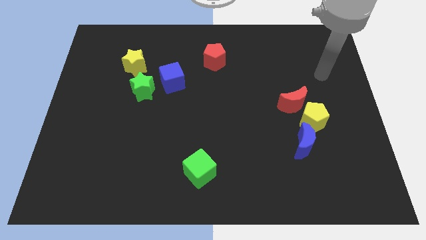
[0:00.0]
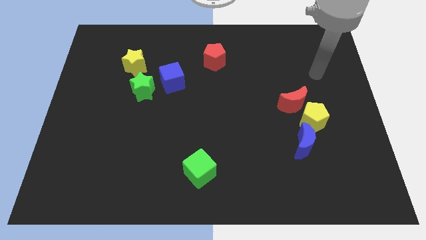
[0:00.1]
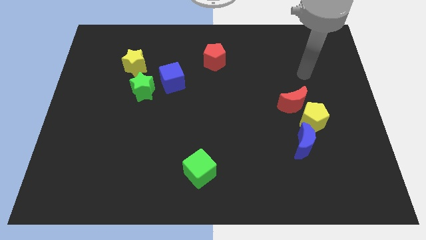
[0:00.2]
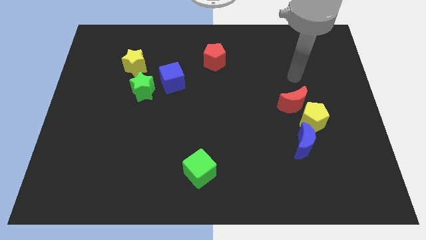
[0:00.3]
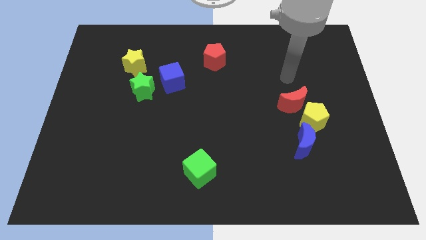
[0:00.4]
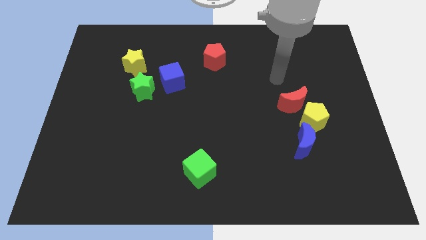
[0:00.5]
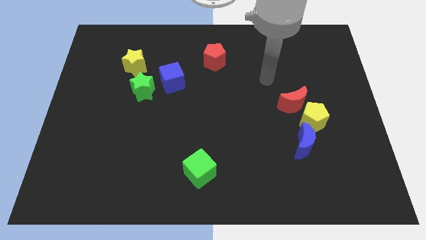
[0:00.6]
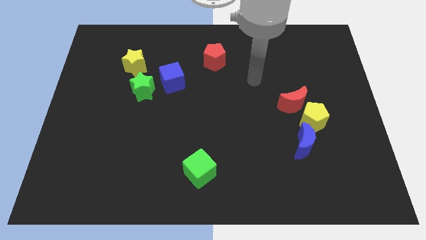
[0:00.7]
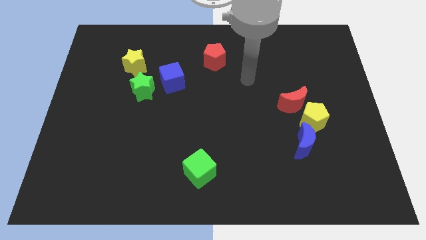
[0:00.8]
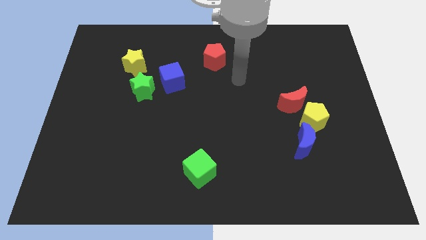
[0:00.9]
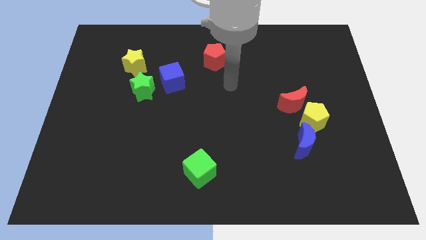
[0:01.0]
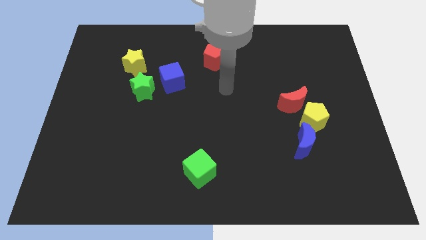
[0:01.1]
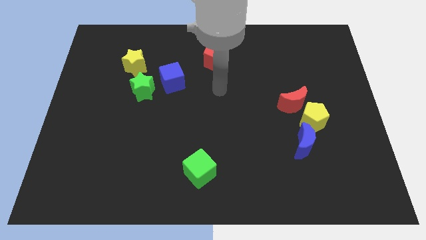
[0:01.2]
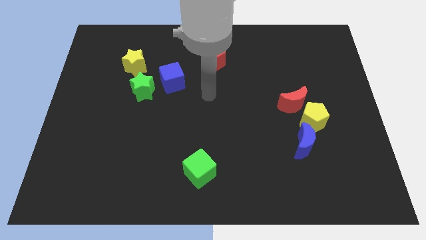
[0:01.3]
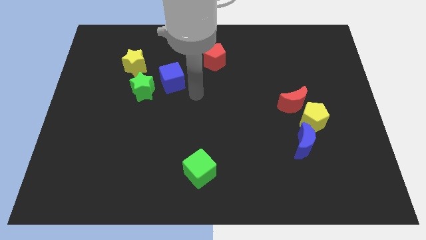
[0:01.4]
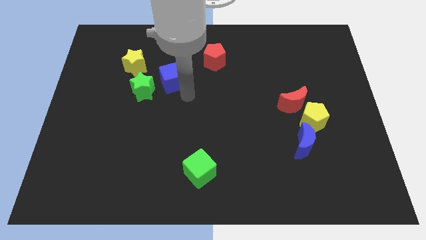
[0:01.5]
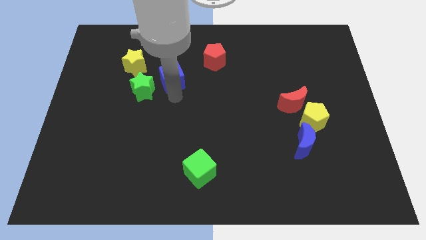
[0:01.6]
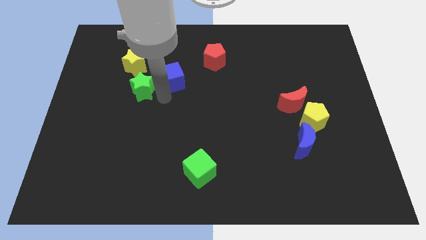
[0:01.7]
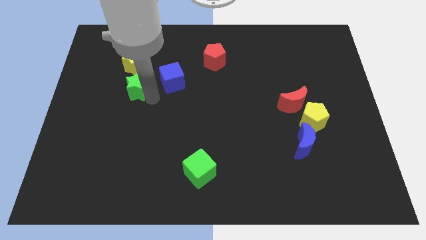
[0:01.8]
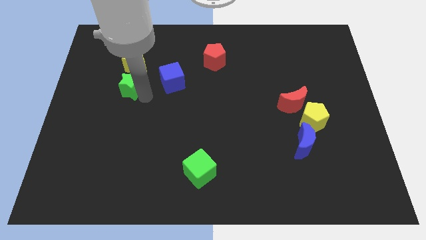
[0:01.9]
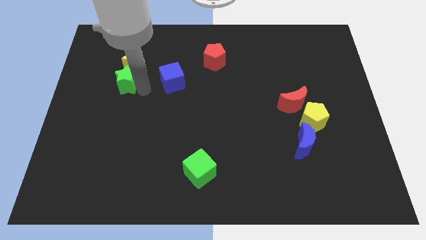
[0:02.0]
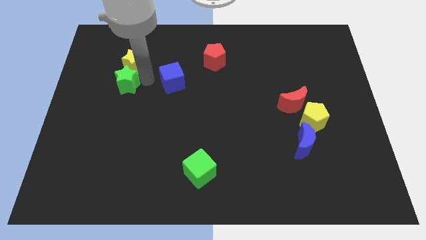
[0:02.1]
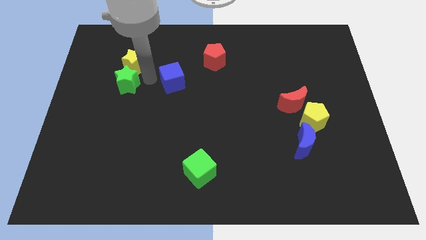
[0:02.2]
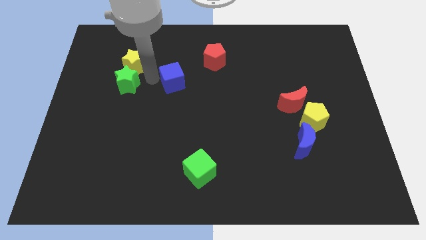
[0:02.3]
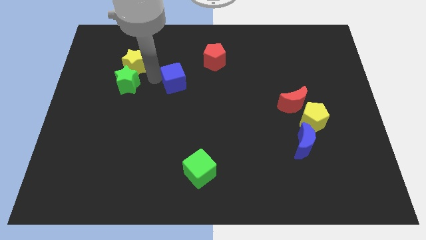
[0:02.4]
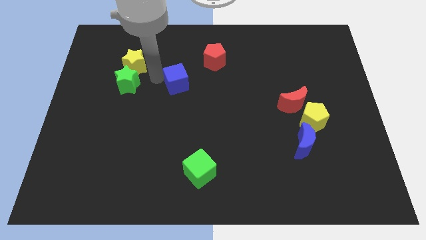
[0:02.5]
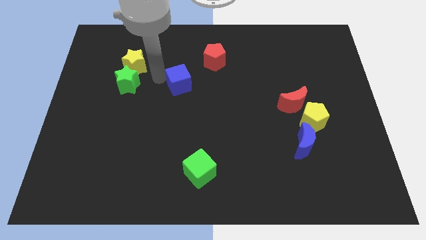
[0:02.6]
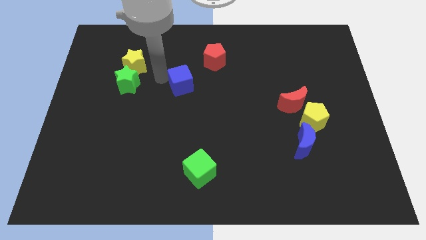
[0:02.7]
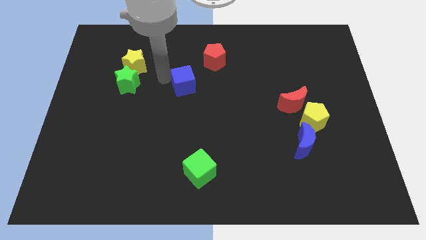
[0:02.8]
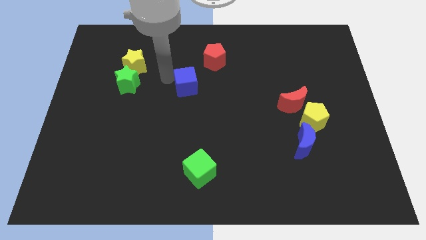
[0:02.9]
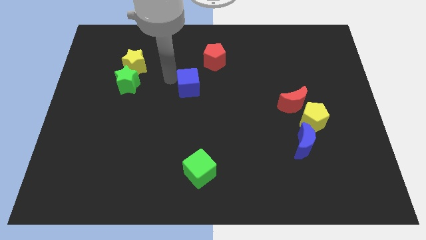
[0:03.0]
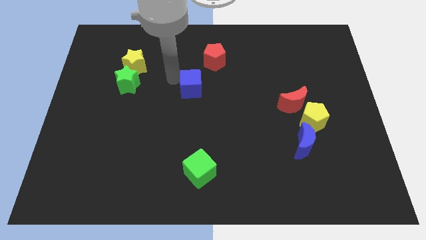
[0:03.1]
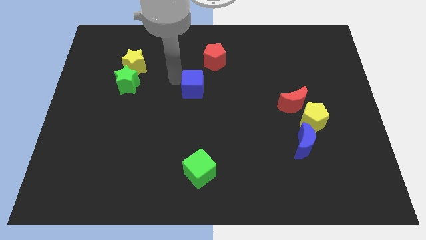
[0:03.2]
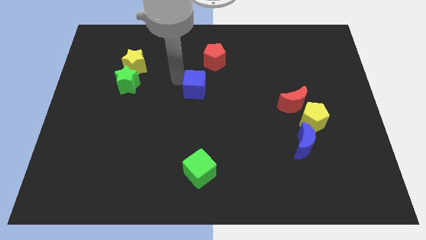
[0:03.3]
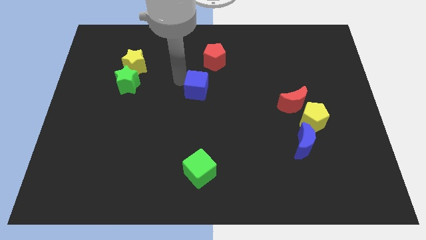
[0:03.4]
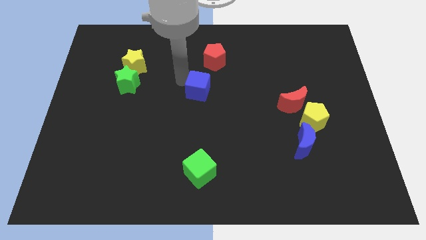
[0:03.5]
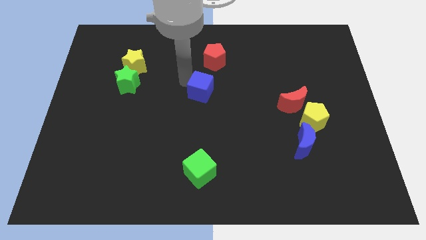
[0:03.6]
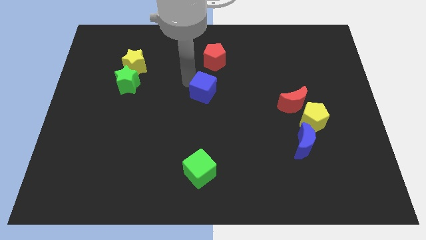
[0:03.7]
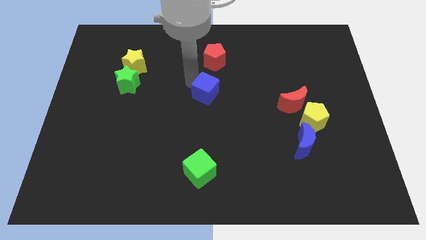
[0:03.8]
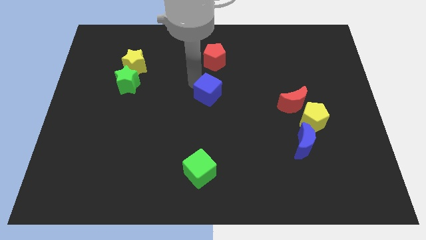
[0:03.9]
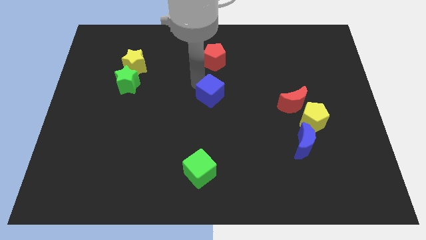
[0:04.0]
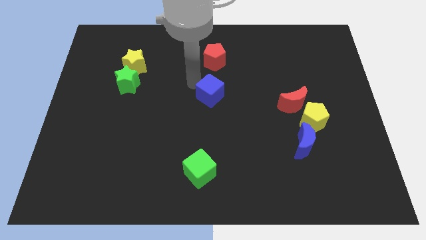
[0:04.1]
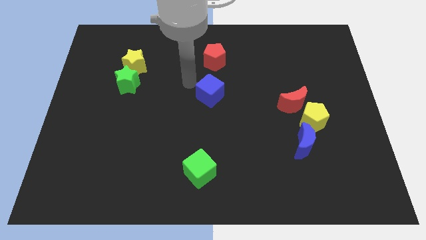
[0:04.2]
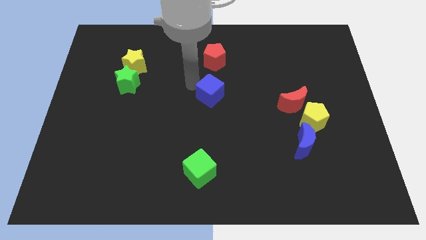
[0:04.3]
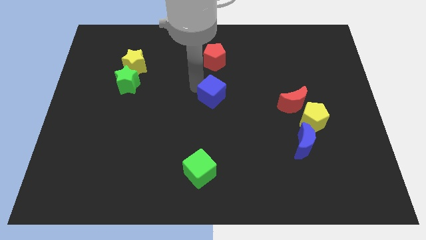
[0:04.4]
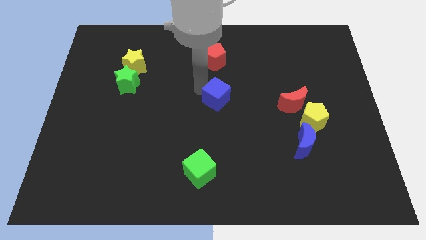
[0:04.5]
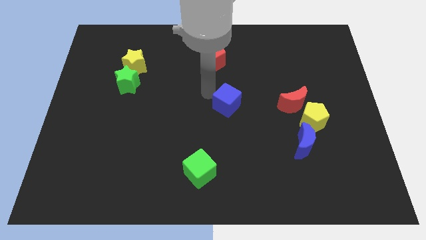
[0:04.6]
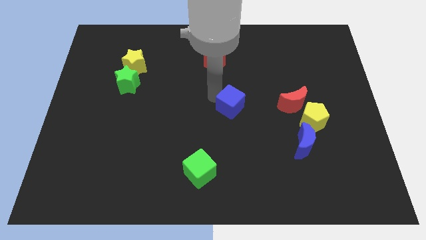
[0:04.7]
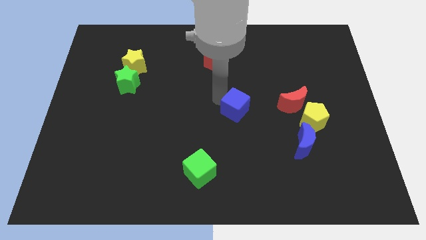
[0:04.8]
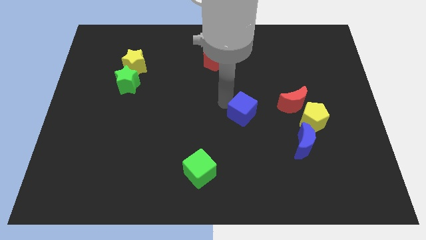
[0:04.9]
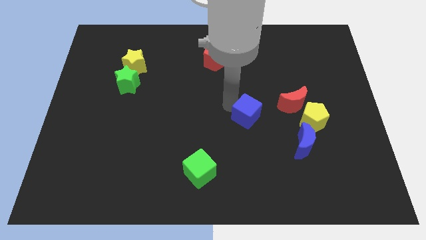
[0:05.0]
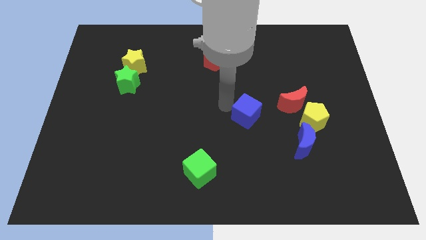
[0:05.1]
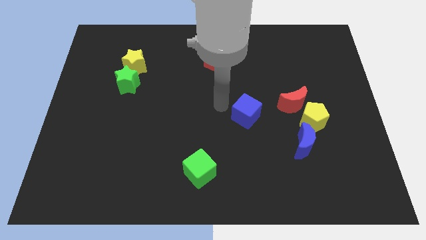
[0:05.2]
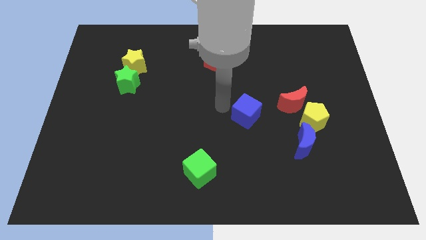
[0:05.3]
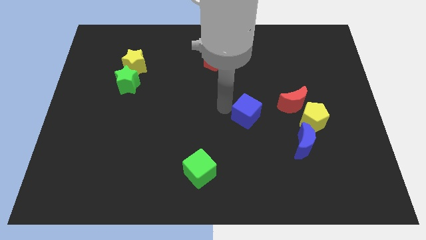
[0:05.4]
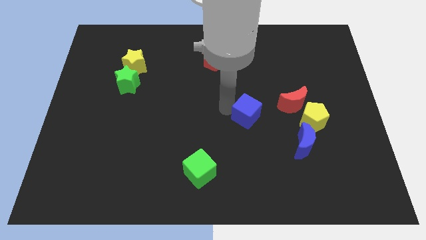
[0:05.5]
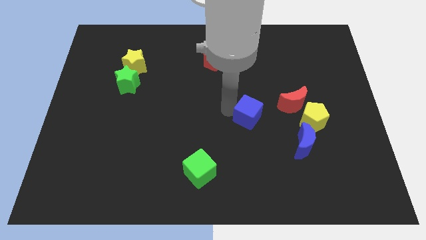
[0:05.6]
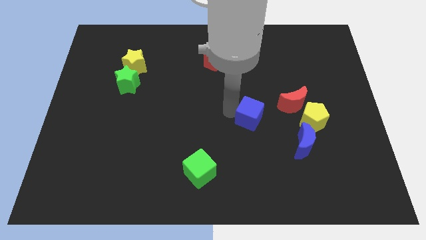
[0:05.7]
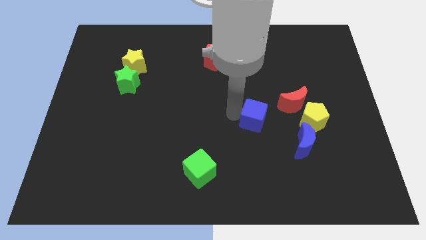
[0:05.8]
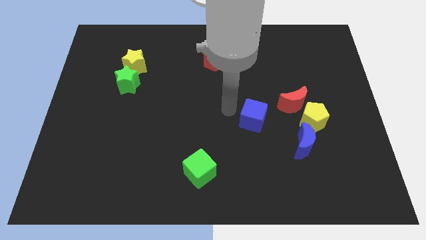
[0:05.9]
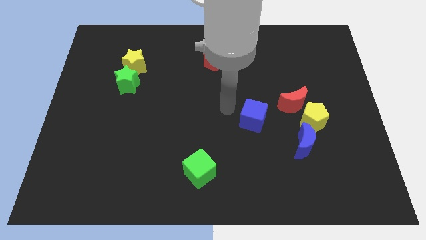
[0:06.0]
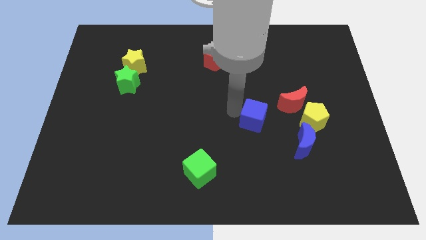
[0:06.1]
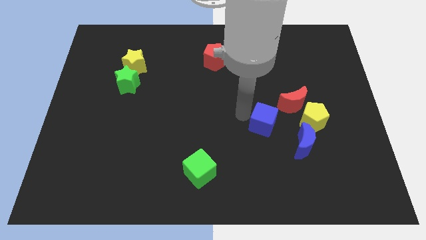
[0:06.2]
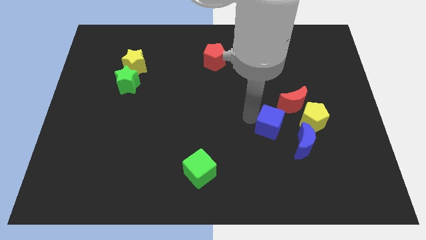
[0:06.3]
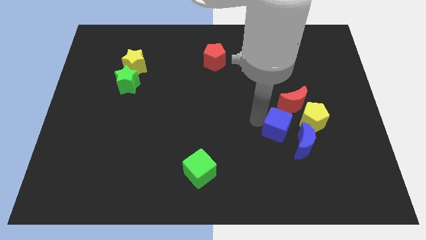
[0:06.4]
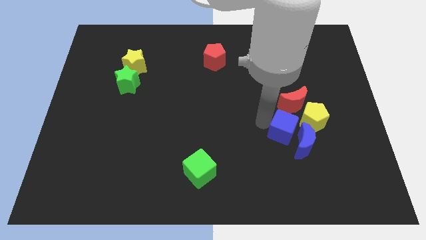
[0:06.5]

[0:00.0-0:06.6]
move the blue cube close to the blue moon

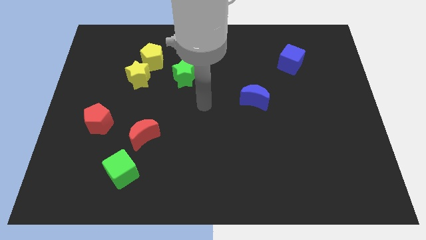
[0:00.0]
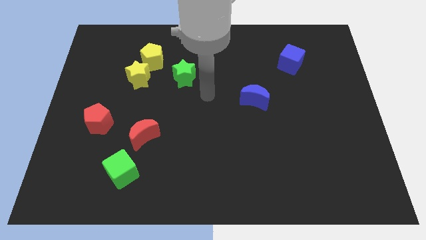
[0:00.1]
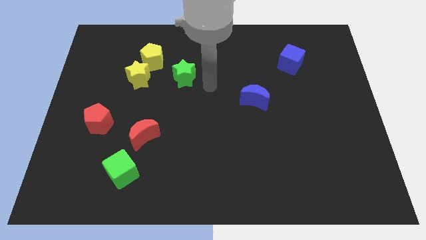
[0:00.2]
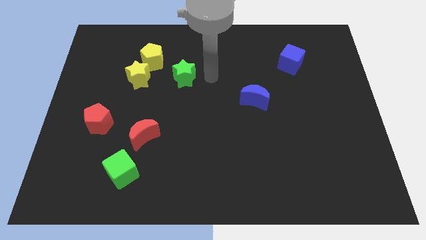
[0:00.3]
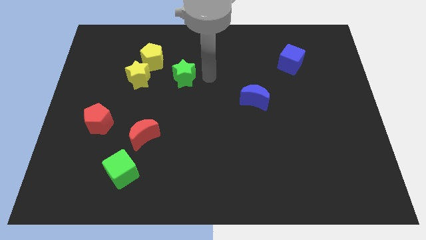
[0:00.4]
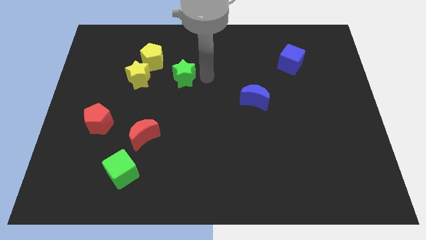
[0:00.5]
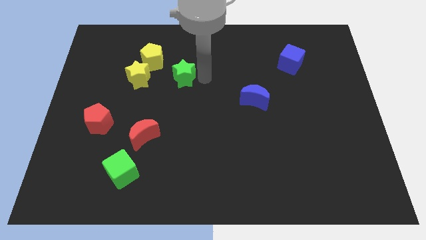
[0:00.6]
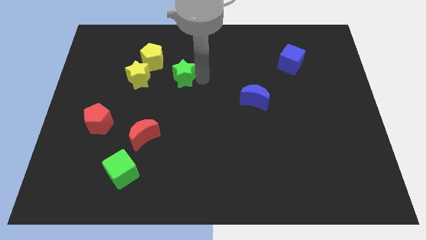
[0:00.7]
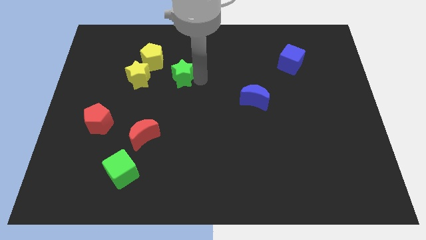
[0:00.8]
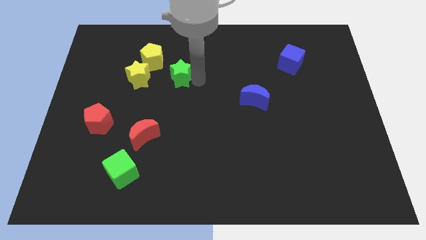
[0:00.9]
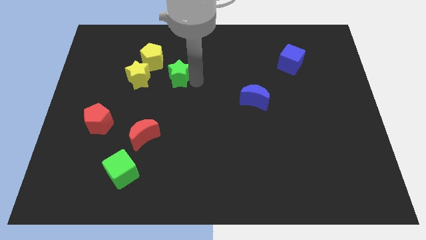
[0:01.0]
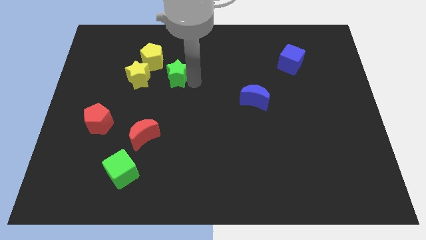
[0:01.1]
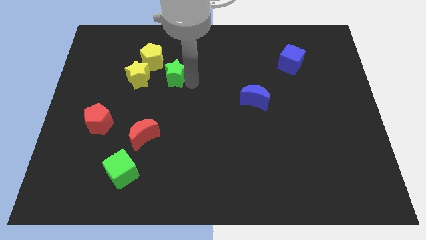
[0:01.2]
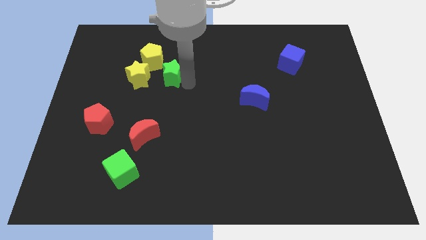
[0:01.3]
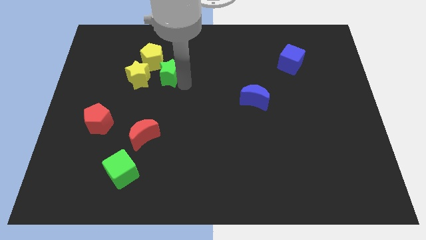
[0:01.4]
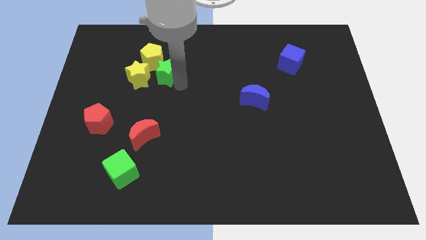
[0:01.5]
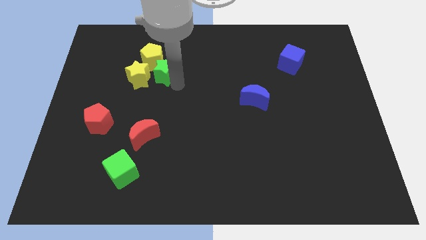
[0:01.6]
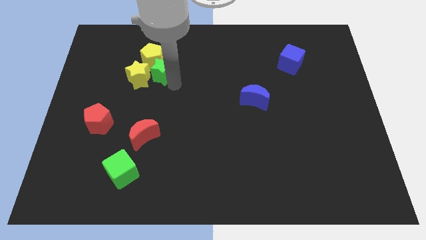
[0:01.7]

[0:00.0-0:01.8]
put the green star to the yellow star
